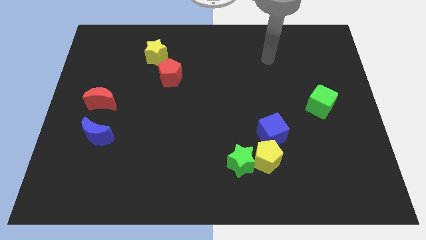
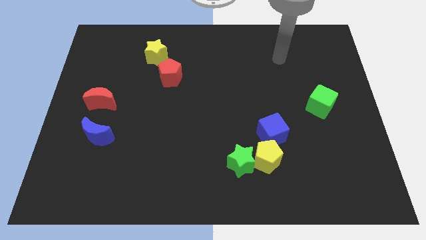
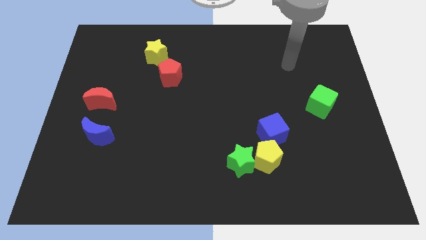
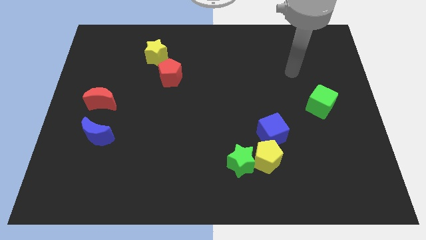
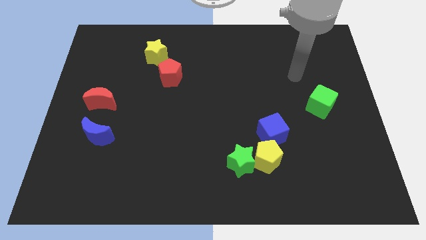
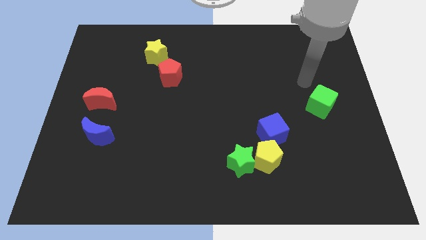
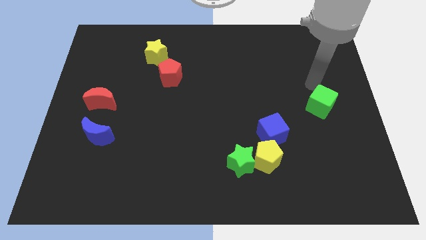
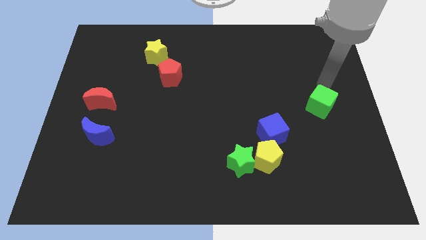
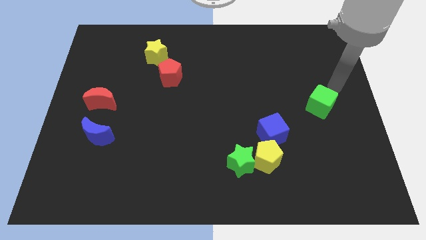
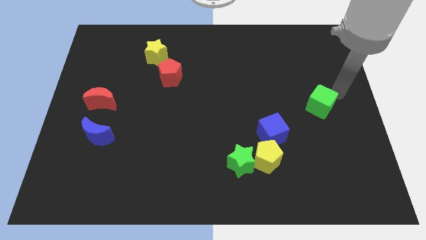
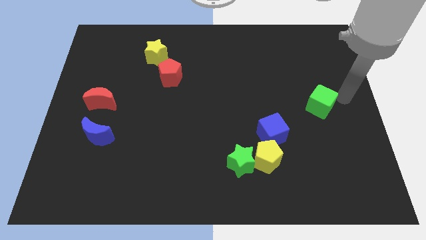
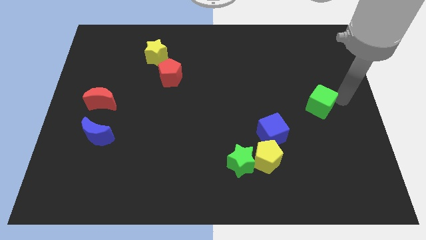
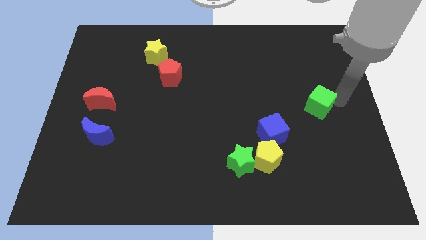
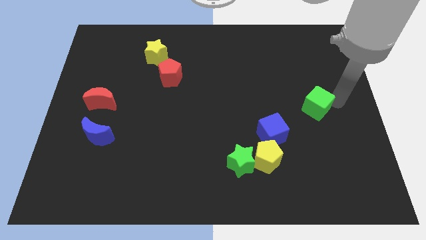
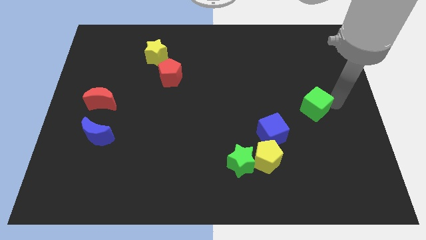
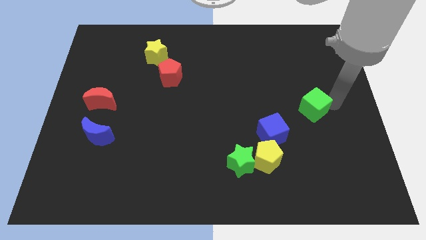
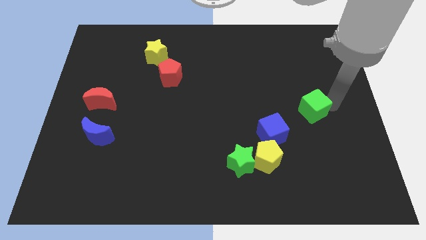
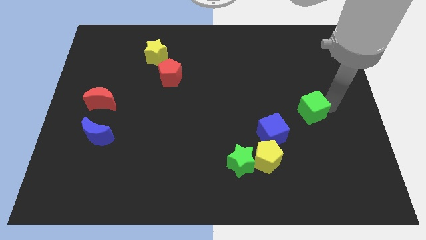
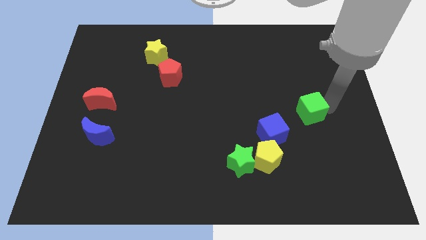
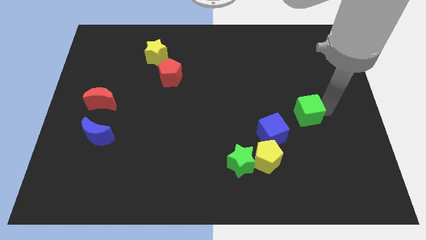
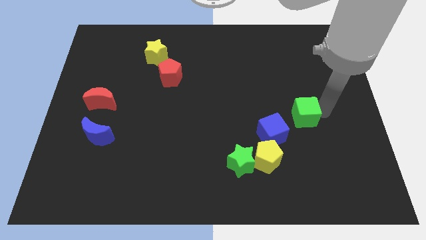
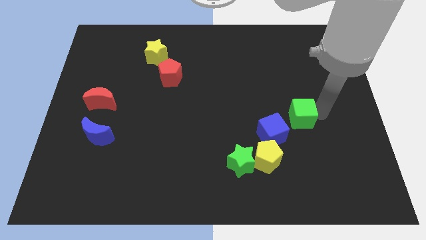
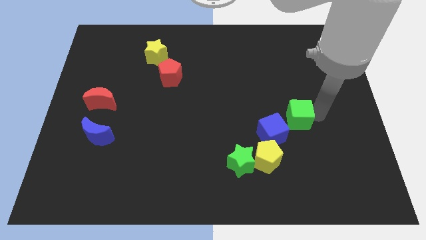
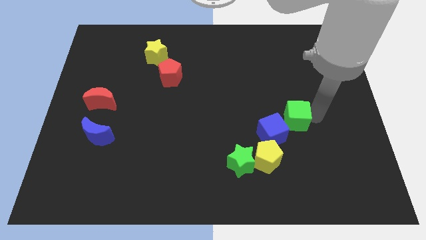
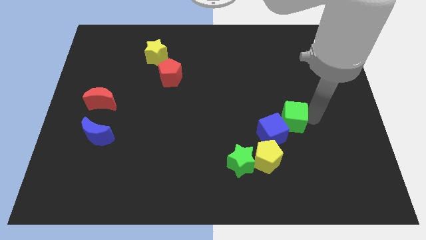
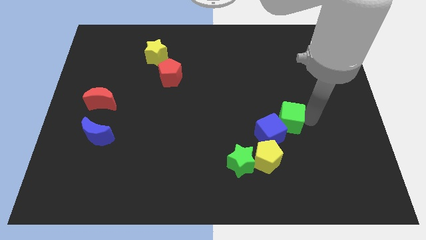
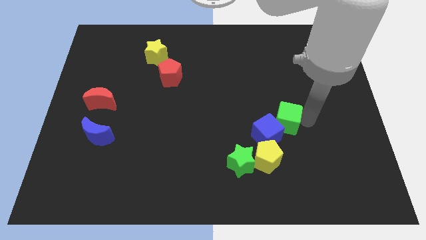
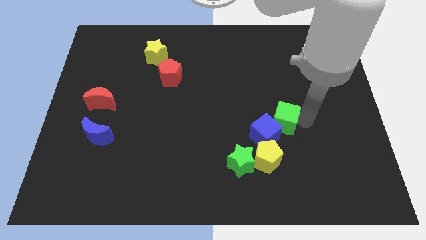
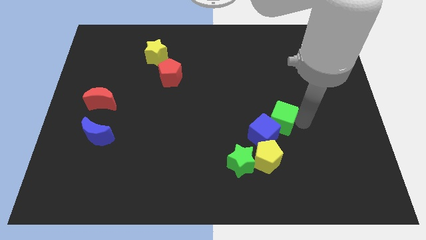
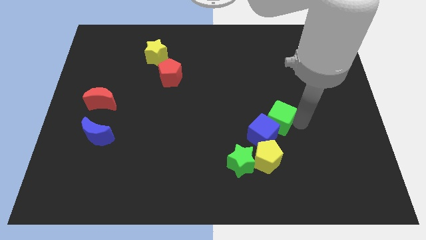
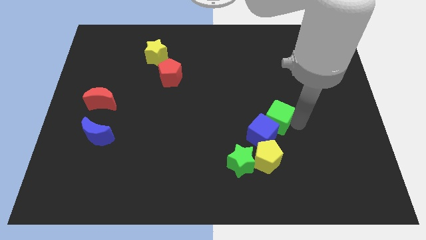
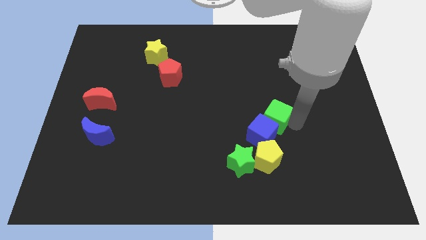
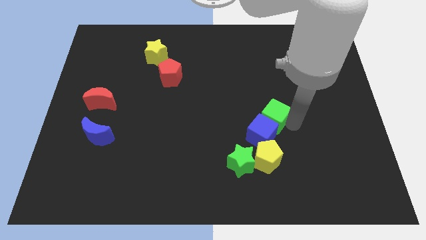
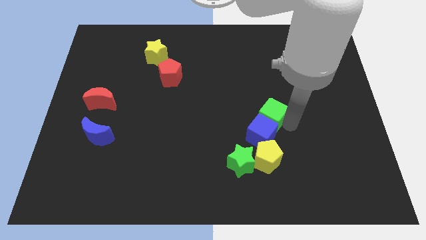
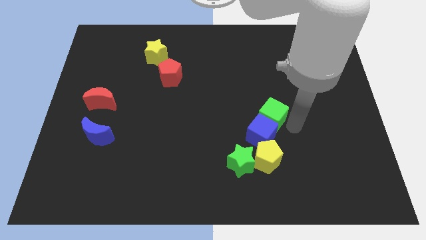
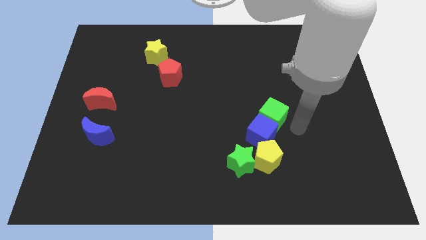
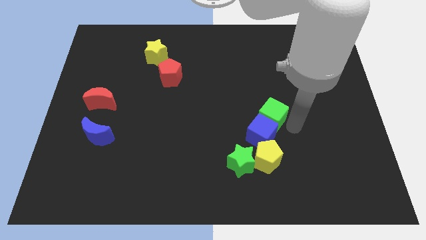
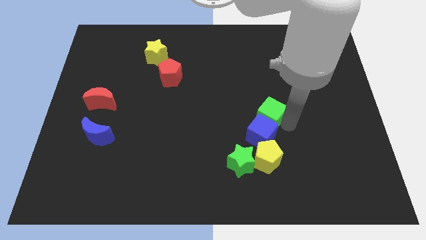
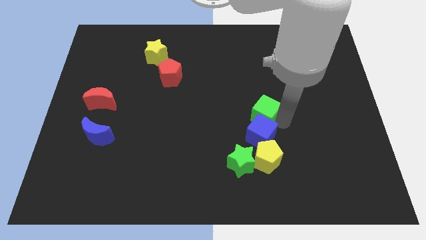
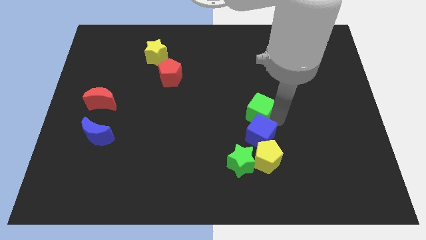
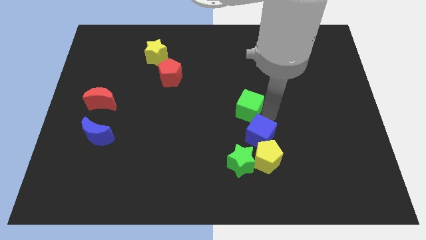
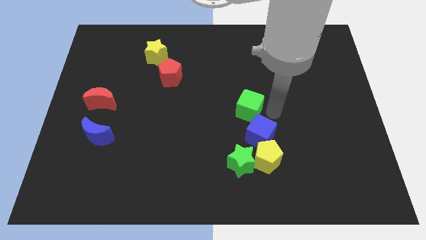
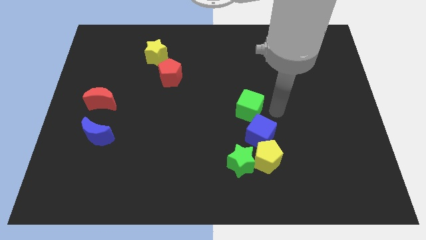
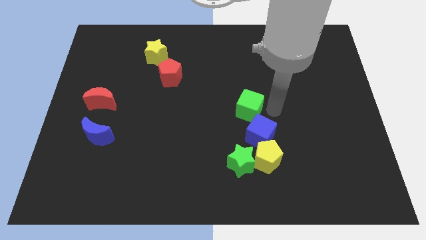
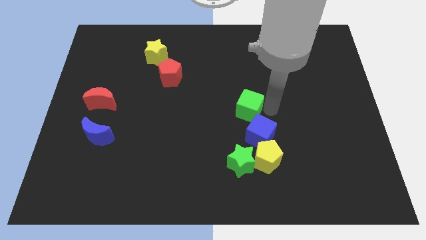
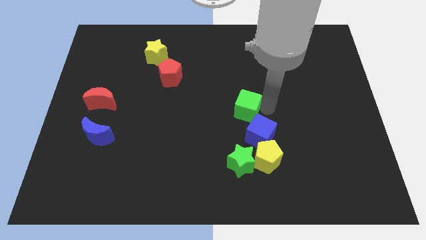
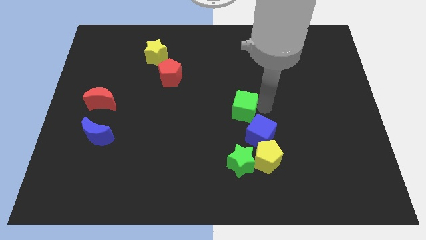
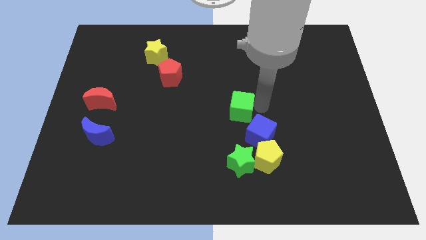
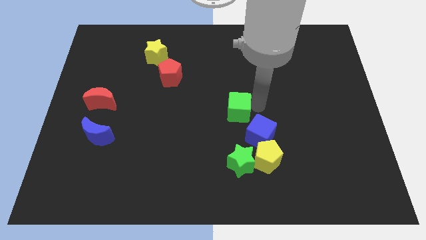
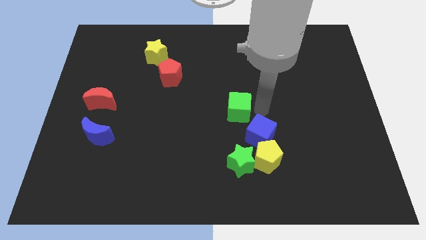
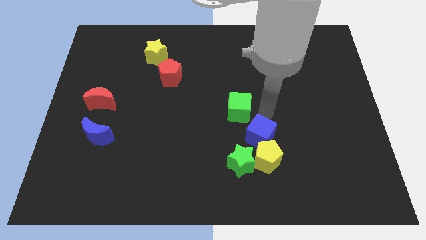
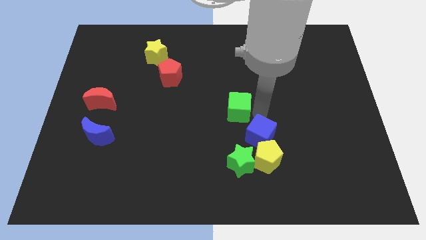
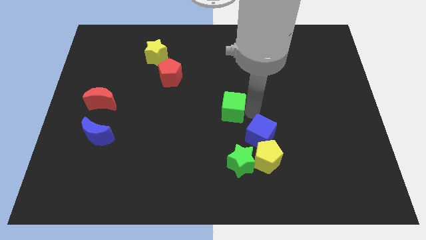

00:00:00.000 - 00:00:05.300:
push the green cube left

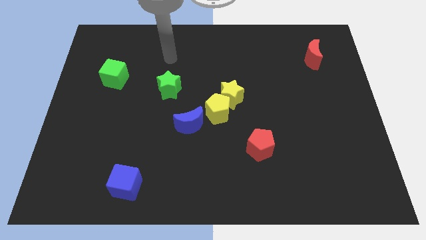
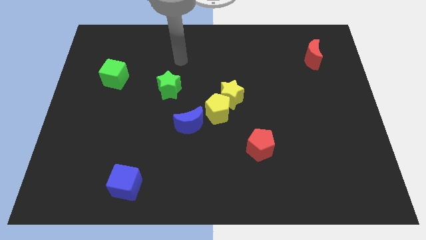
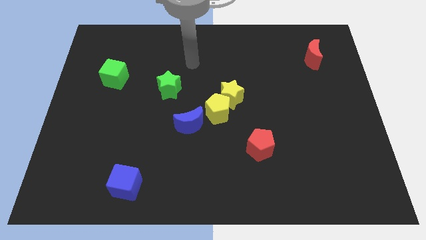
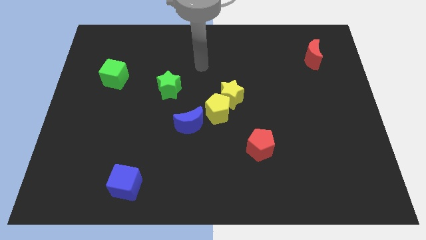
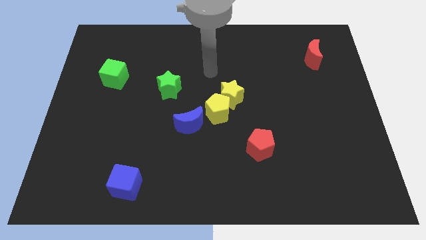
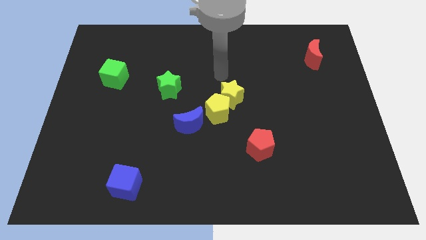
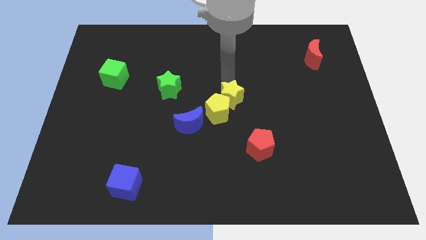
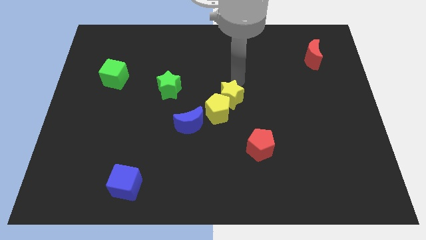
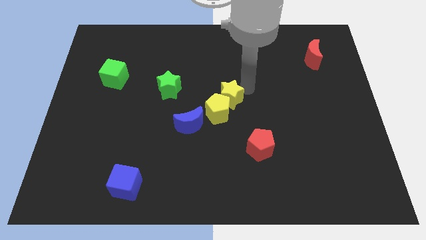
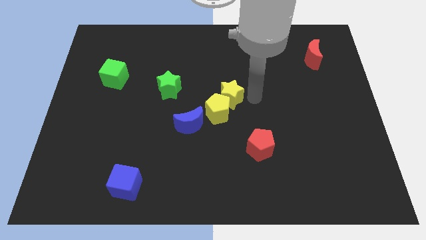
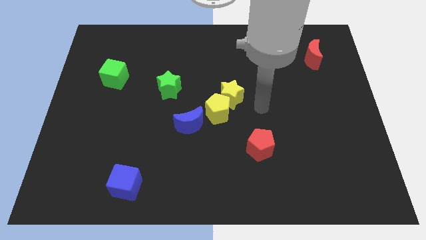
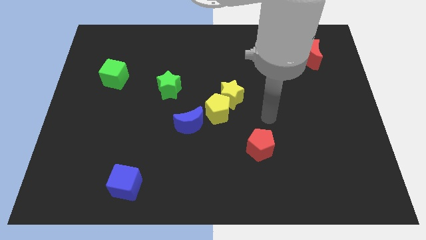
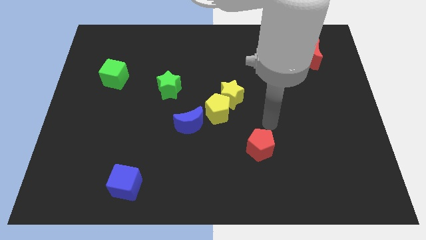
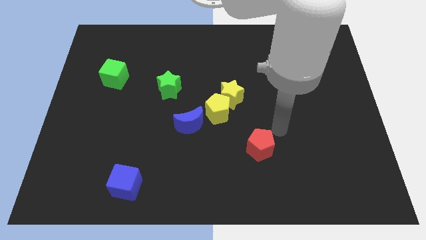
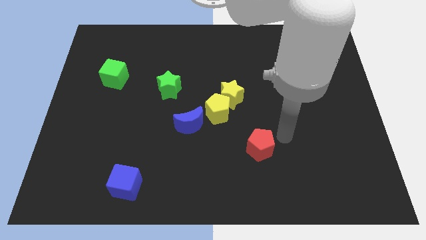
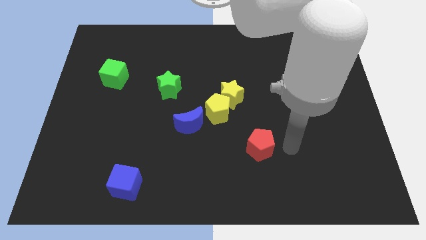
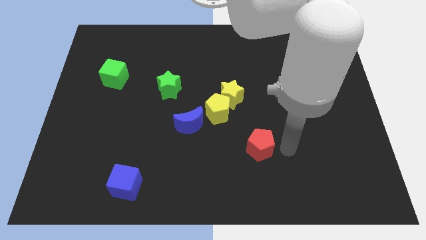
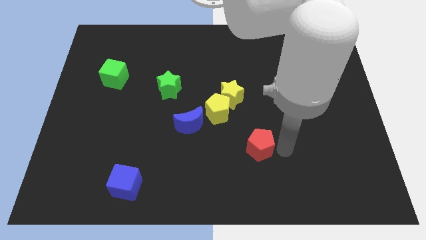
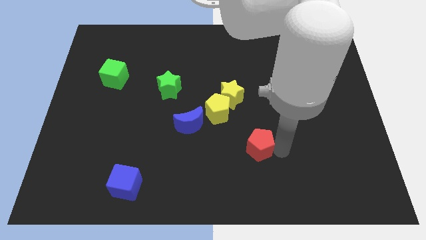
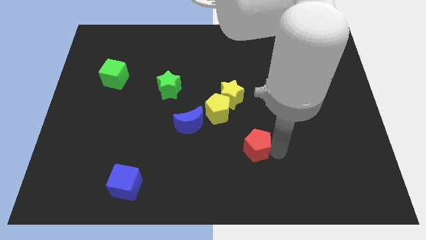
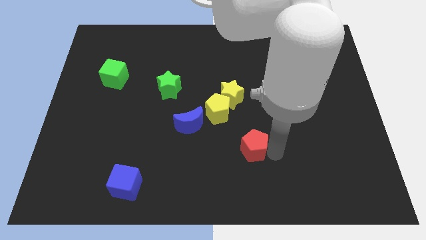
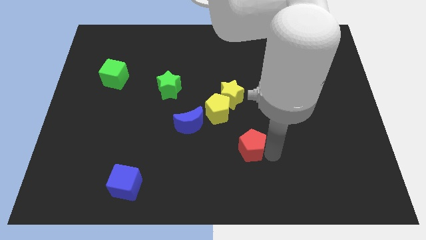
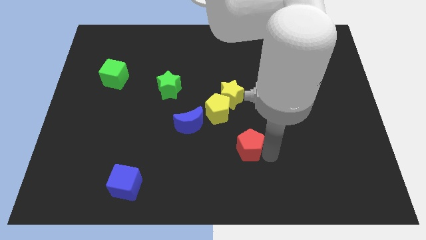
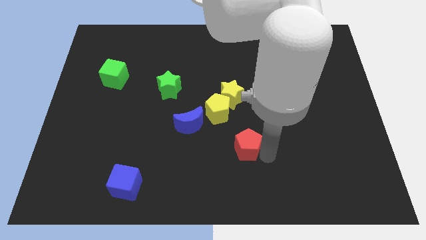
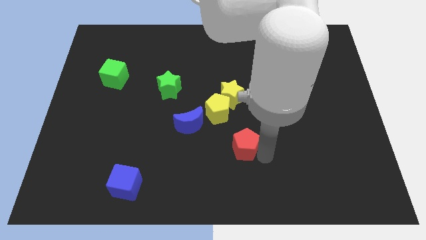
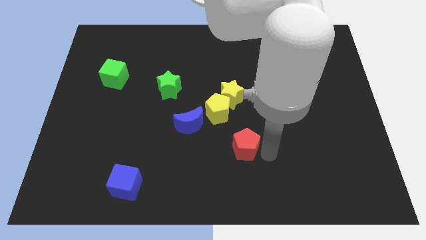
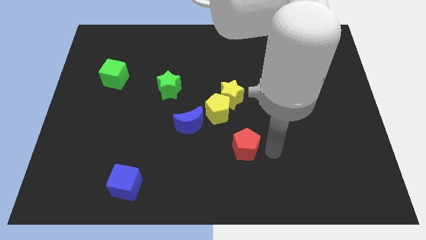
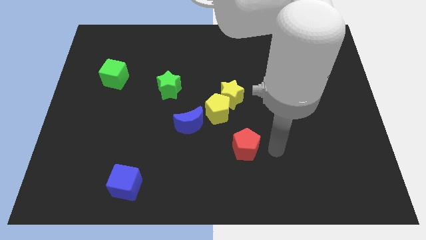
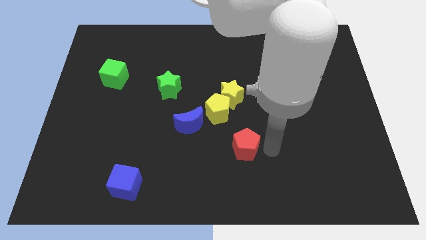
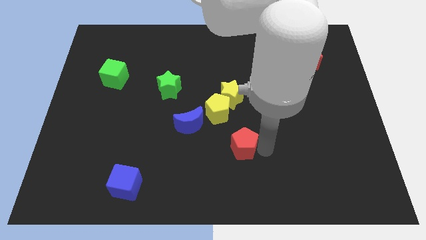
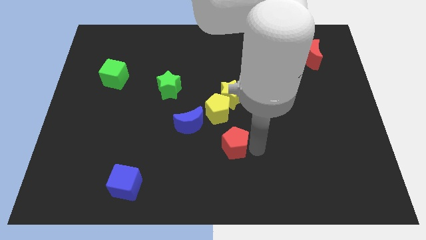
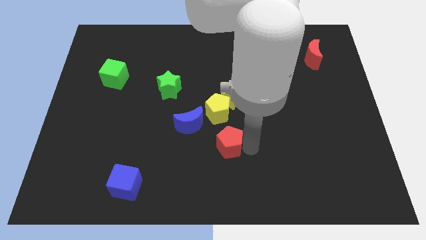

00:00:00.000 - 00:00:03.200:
push the red pentagon to the left a bit
